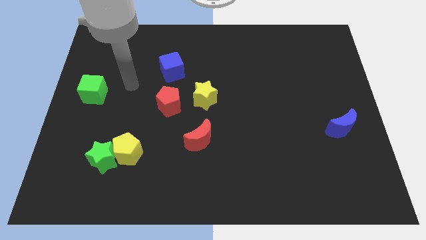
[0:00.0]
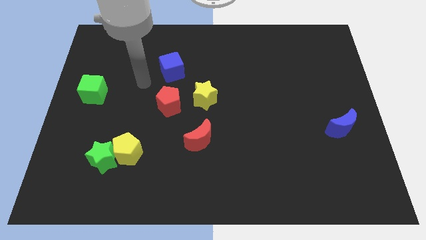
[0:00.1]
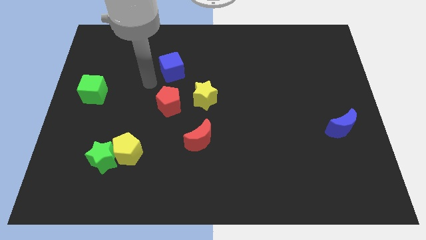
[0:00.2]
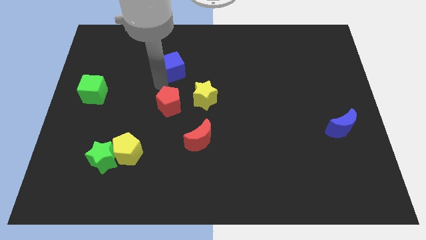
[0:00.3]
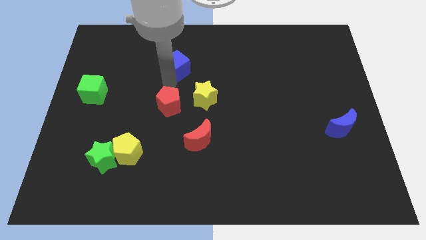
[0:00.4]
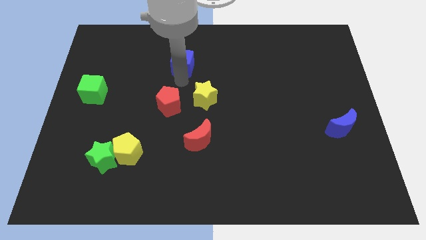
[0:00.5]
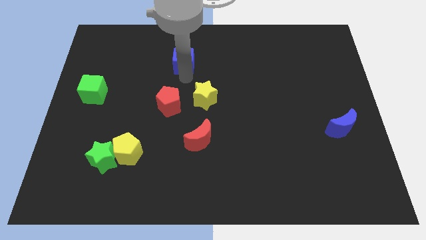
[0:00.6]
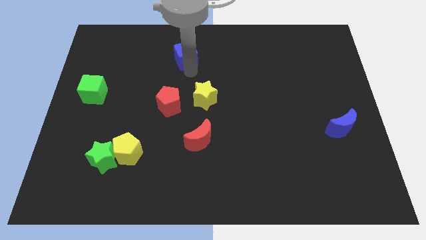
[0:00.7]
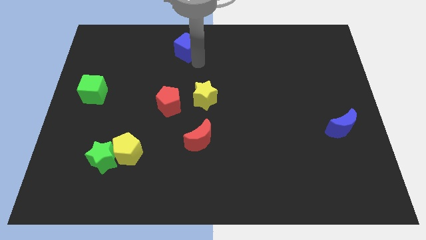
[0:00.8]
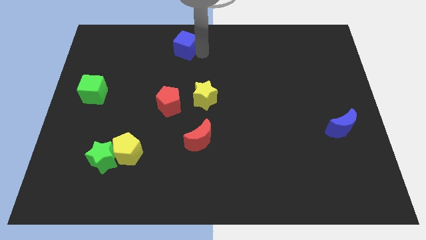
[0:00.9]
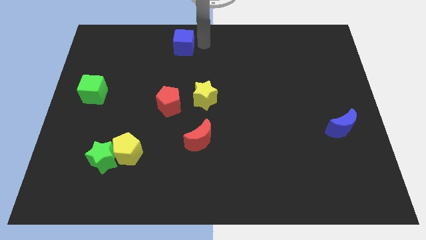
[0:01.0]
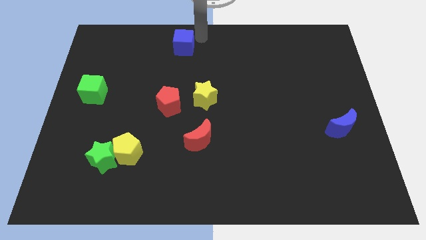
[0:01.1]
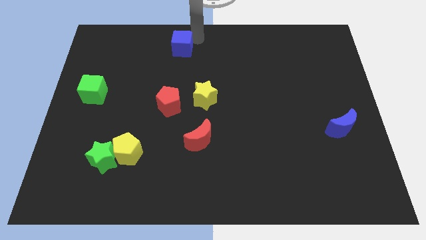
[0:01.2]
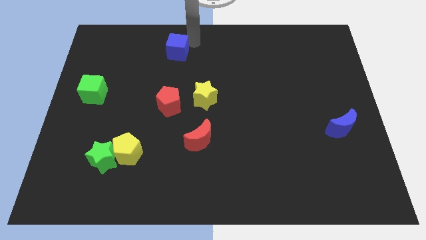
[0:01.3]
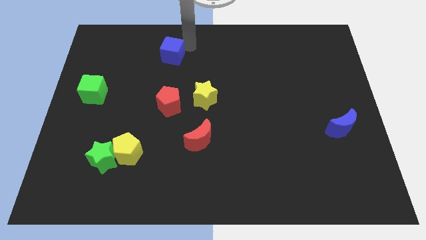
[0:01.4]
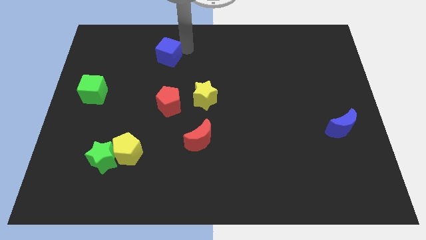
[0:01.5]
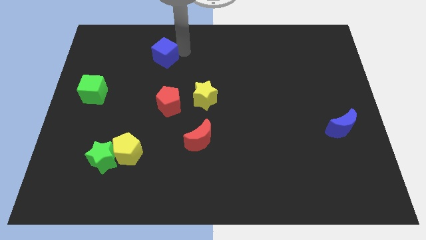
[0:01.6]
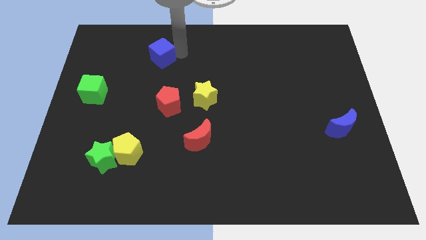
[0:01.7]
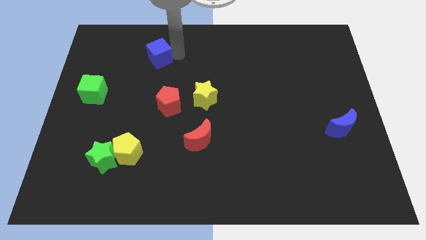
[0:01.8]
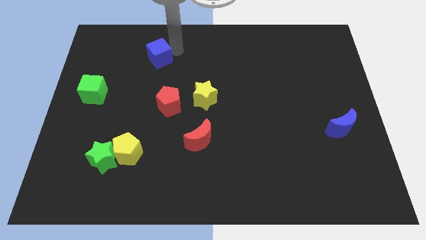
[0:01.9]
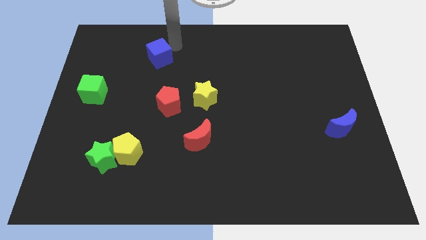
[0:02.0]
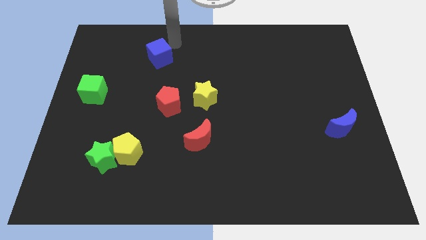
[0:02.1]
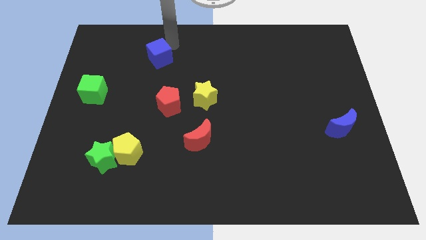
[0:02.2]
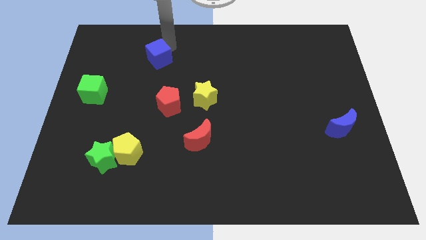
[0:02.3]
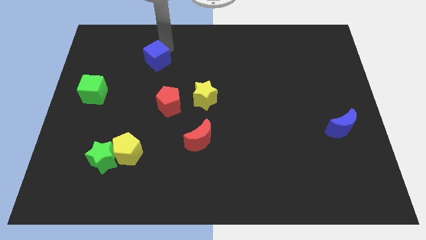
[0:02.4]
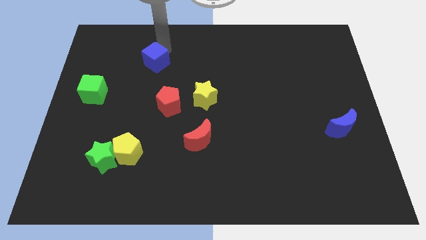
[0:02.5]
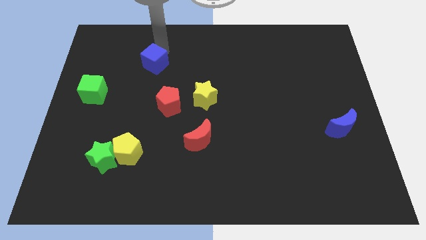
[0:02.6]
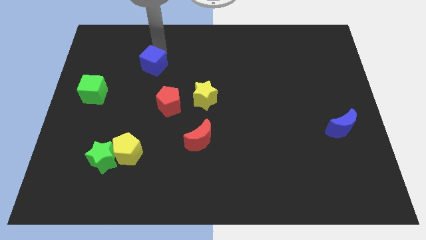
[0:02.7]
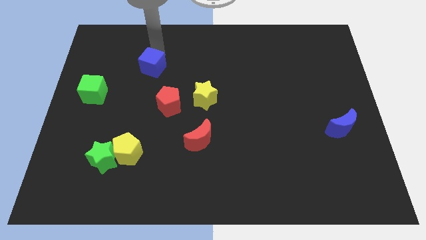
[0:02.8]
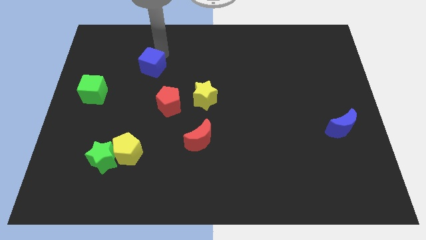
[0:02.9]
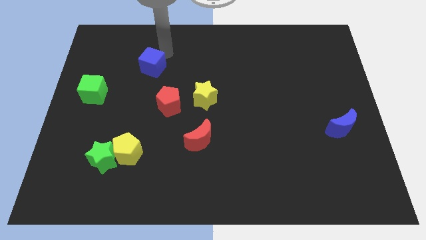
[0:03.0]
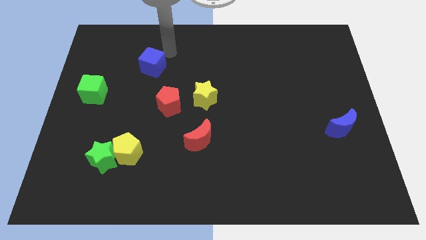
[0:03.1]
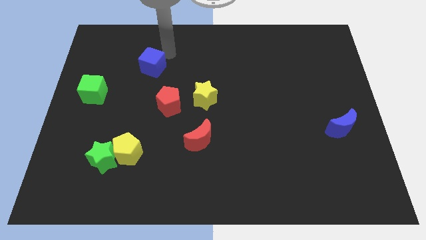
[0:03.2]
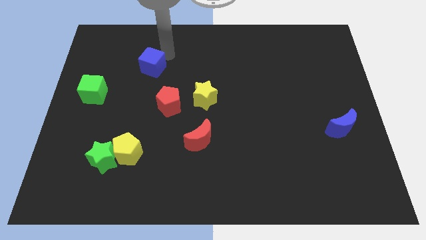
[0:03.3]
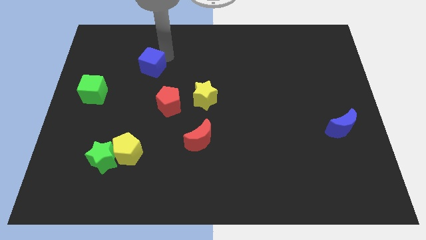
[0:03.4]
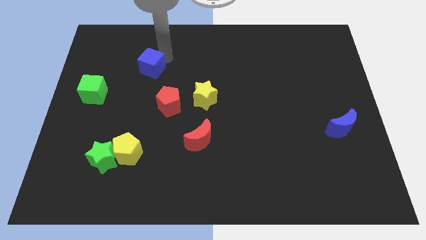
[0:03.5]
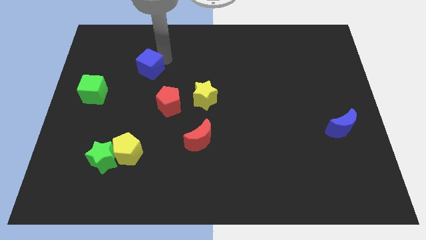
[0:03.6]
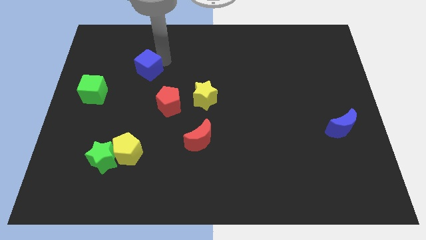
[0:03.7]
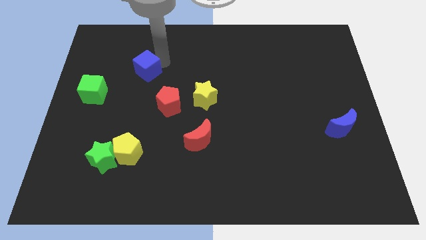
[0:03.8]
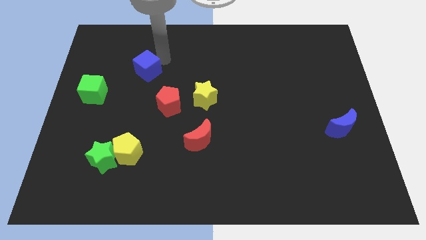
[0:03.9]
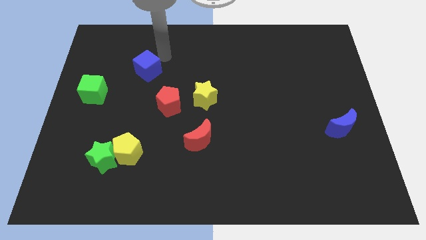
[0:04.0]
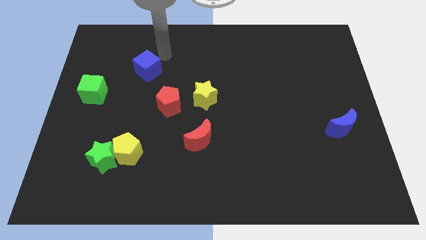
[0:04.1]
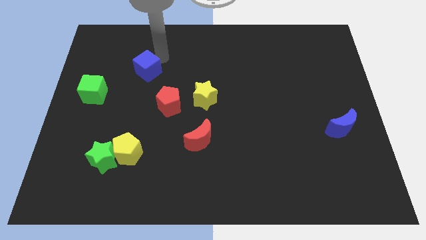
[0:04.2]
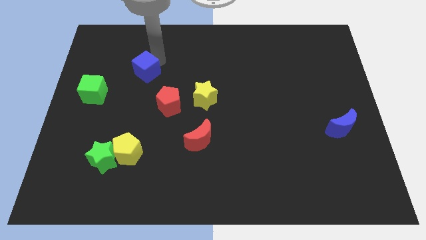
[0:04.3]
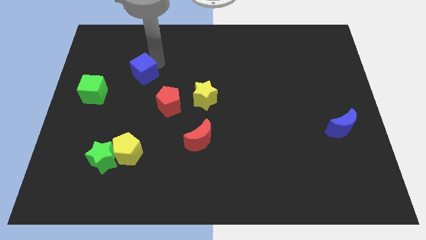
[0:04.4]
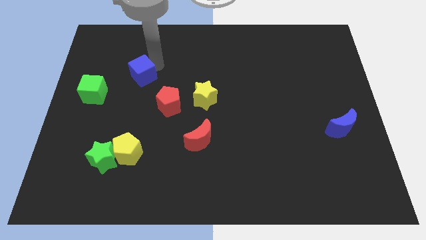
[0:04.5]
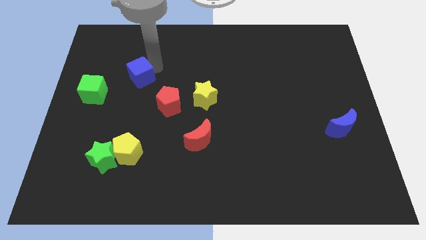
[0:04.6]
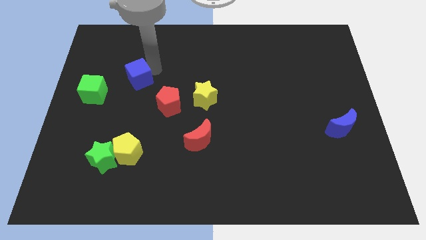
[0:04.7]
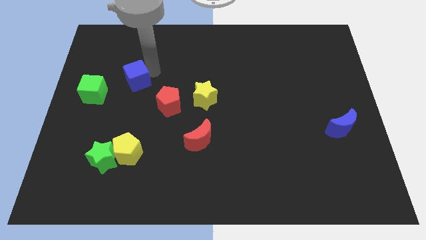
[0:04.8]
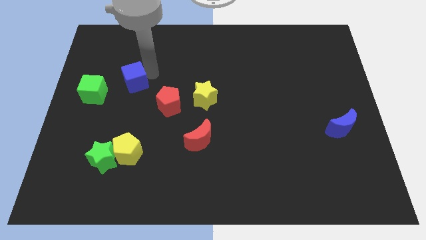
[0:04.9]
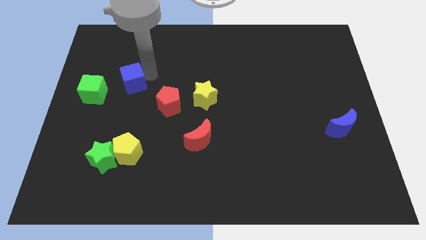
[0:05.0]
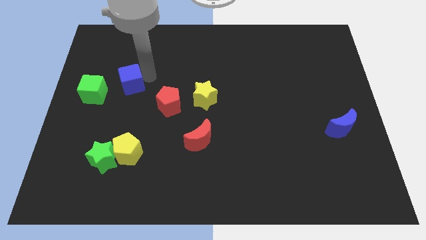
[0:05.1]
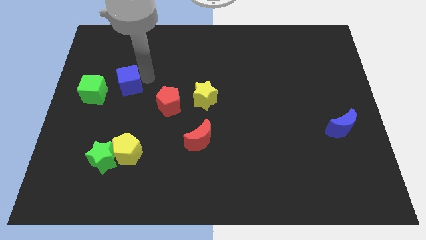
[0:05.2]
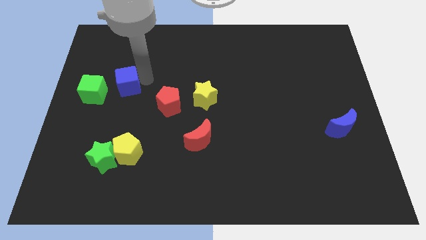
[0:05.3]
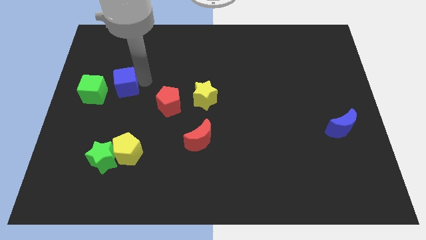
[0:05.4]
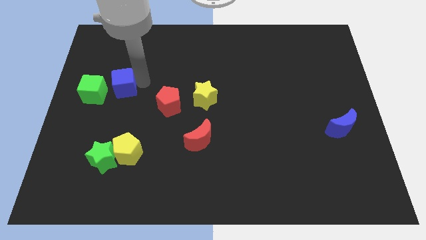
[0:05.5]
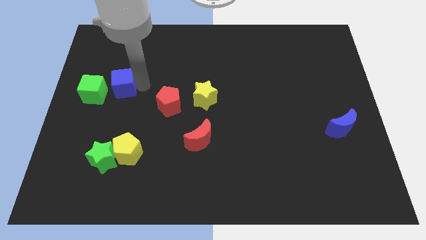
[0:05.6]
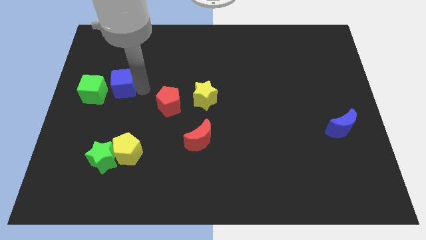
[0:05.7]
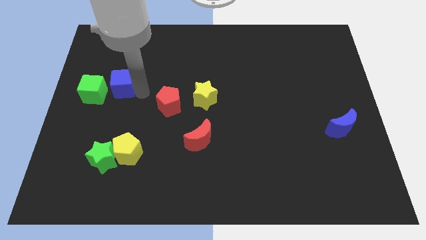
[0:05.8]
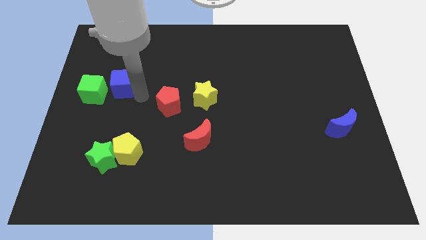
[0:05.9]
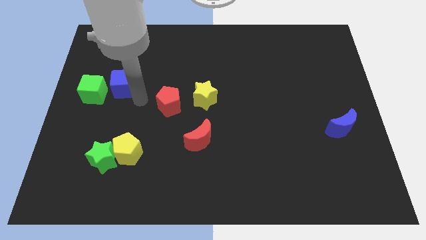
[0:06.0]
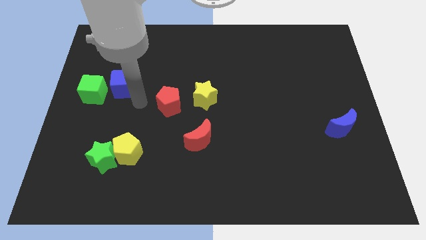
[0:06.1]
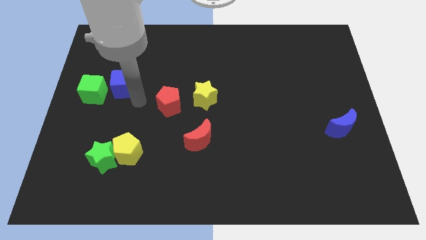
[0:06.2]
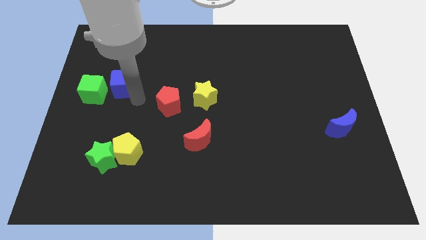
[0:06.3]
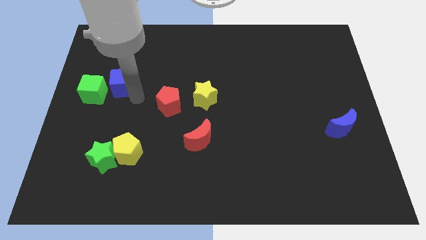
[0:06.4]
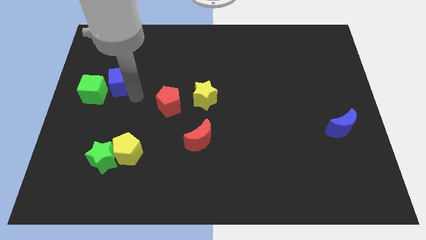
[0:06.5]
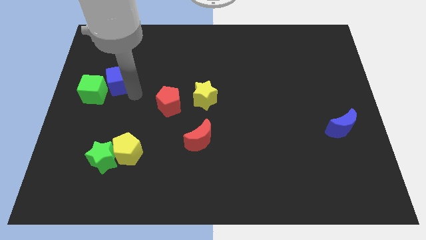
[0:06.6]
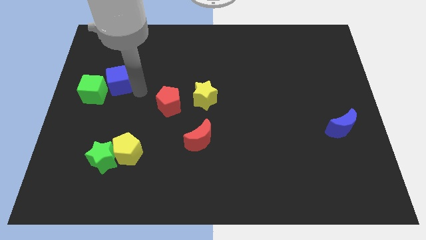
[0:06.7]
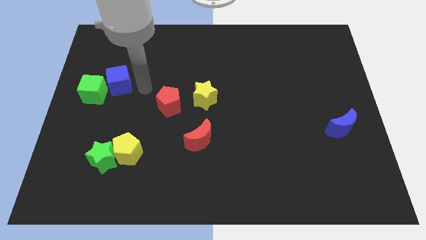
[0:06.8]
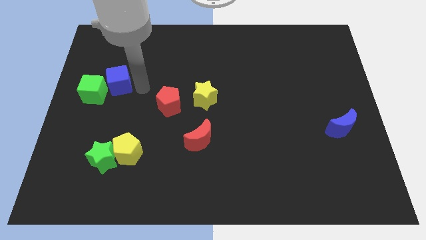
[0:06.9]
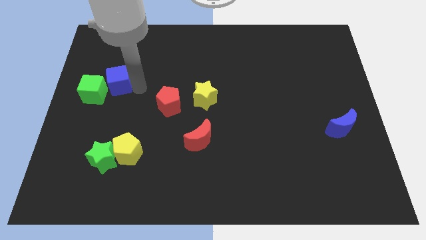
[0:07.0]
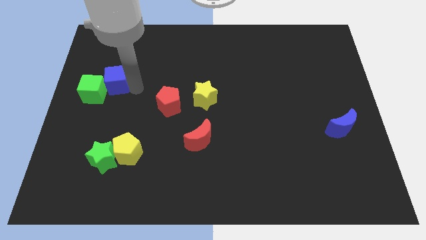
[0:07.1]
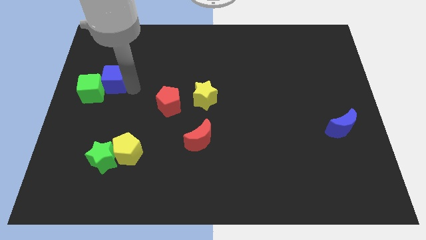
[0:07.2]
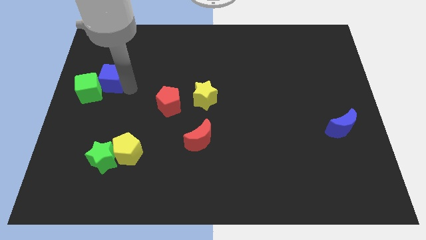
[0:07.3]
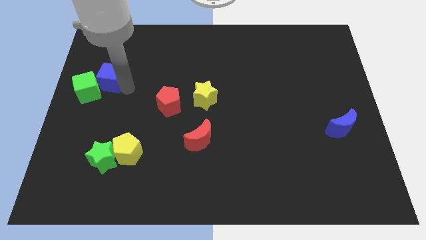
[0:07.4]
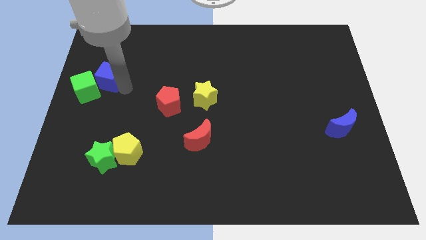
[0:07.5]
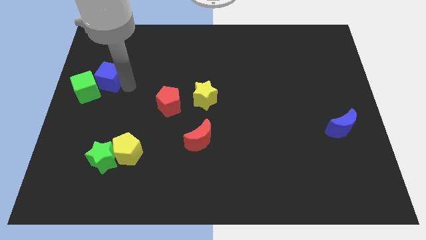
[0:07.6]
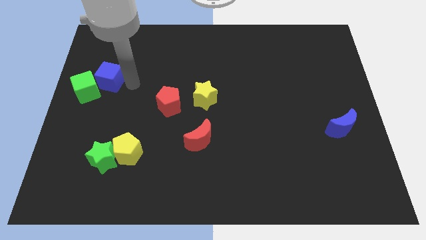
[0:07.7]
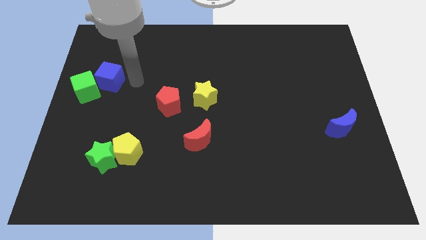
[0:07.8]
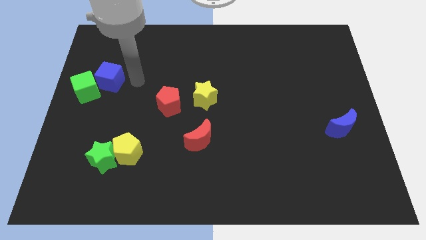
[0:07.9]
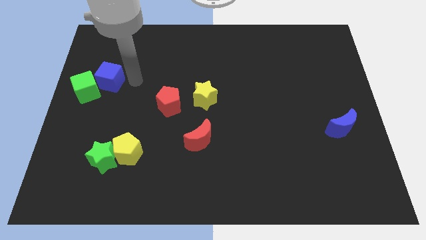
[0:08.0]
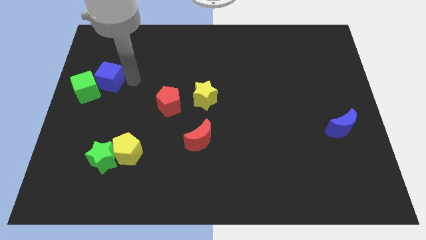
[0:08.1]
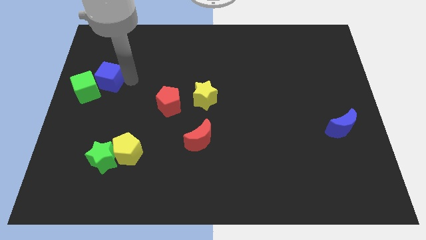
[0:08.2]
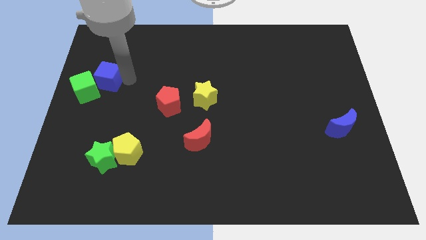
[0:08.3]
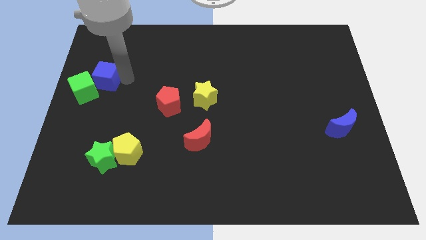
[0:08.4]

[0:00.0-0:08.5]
move the blue cube to the left side
